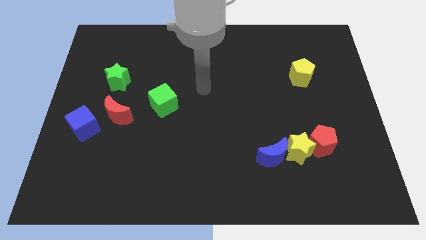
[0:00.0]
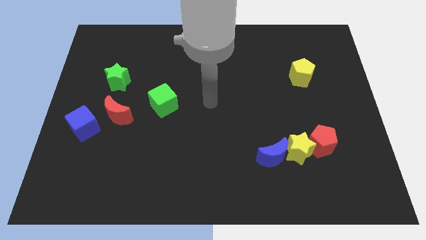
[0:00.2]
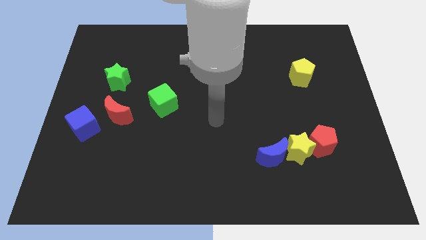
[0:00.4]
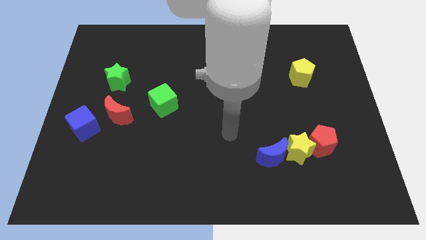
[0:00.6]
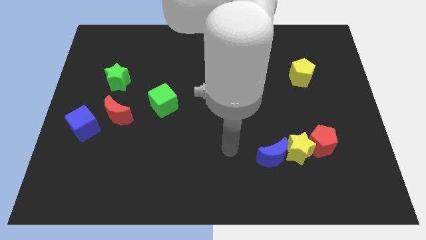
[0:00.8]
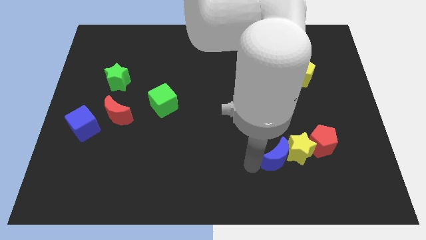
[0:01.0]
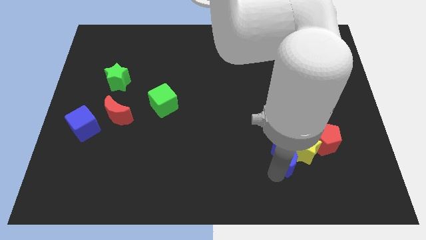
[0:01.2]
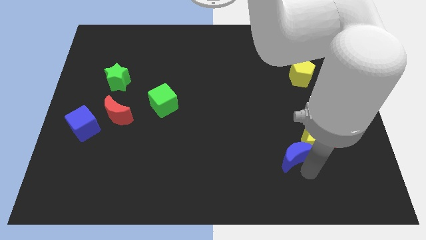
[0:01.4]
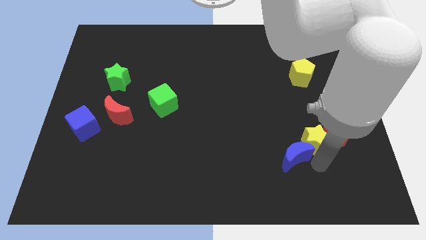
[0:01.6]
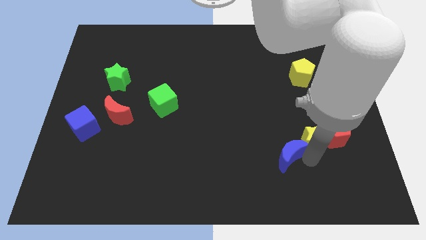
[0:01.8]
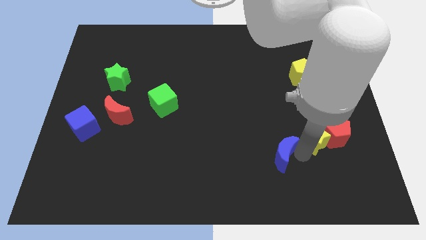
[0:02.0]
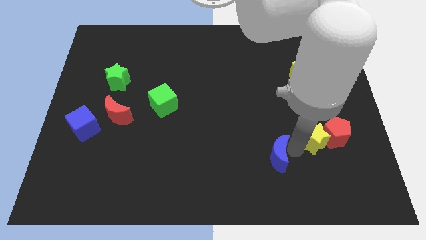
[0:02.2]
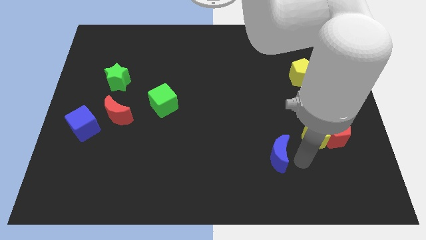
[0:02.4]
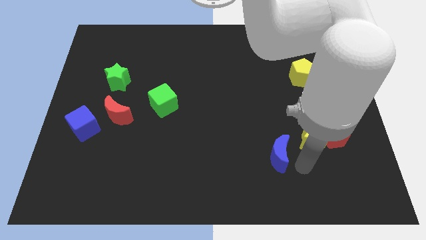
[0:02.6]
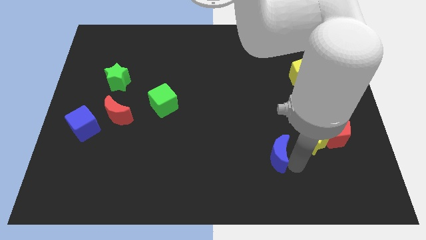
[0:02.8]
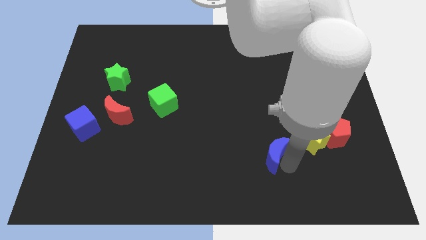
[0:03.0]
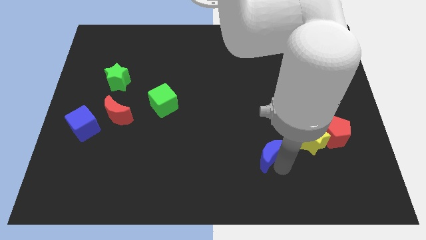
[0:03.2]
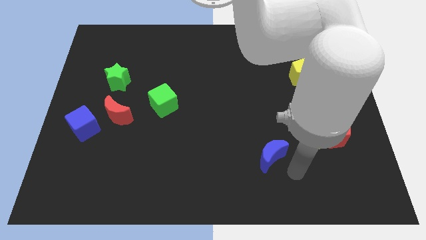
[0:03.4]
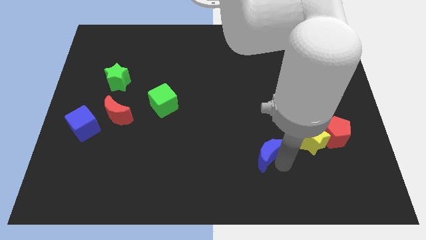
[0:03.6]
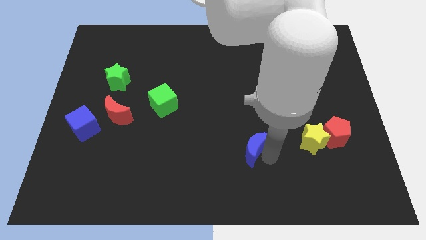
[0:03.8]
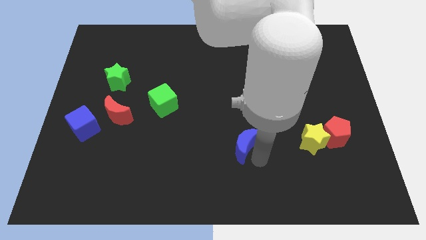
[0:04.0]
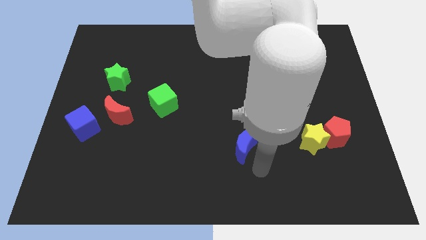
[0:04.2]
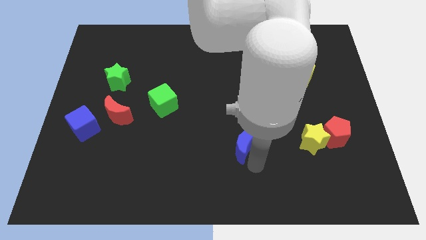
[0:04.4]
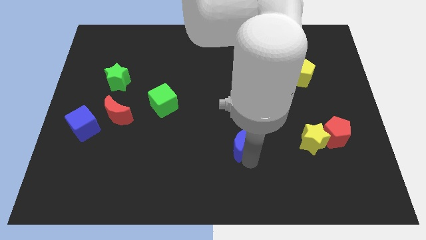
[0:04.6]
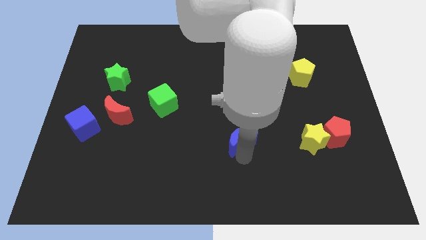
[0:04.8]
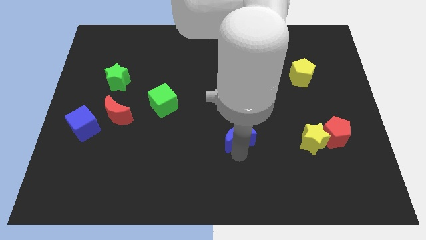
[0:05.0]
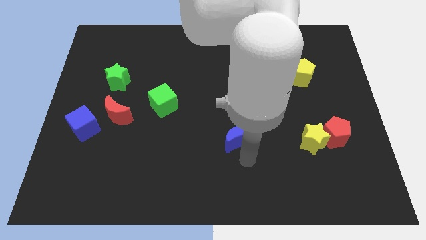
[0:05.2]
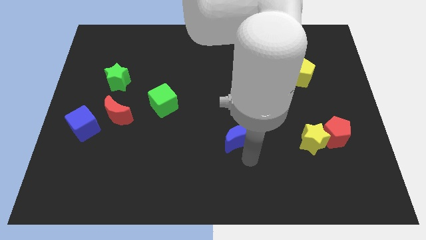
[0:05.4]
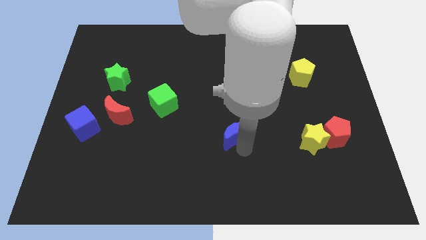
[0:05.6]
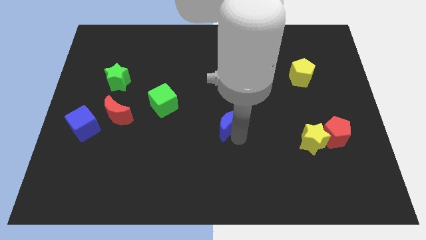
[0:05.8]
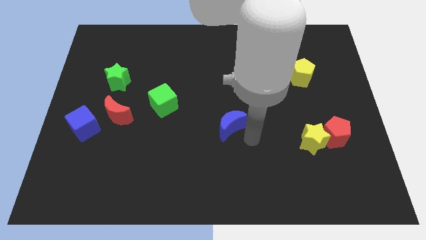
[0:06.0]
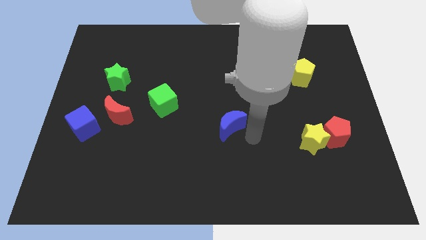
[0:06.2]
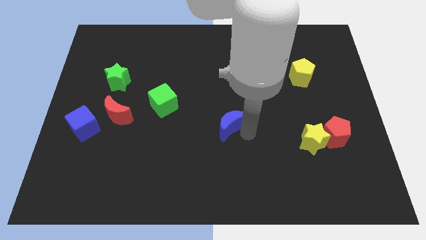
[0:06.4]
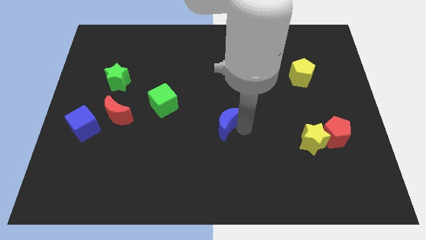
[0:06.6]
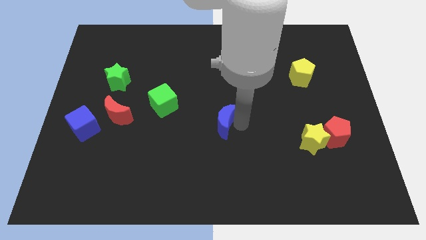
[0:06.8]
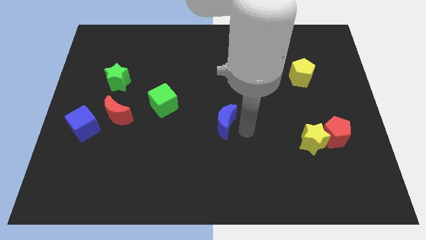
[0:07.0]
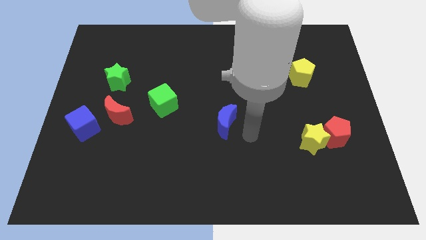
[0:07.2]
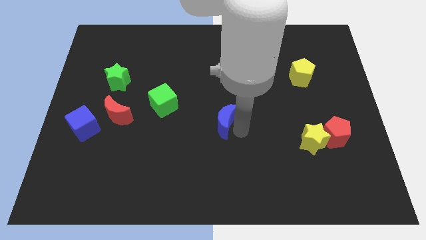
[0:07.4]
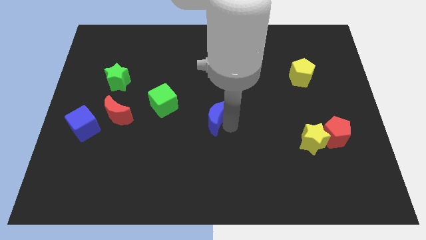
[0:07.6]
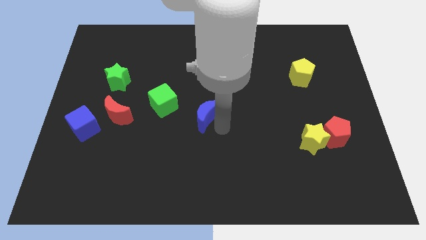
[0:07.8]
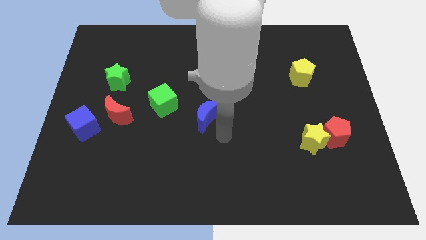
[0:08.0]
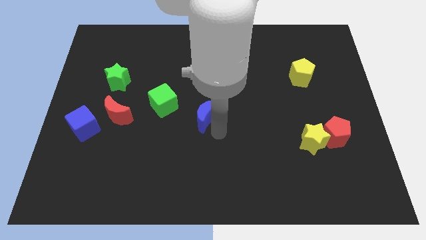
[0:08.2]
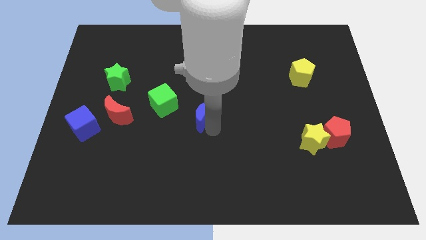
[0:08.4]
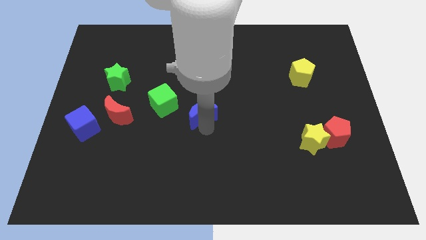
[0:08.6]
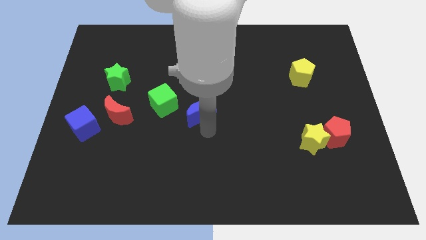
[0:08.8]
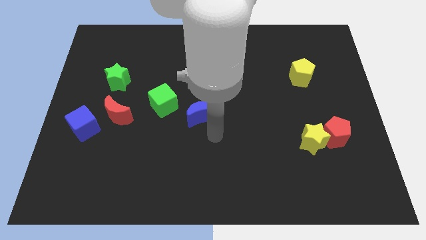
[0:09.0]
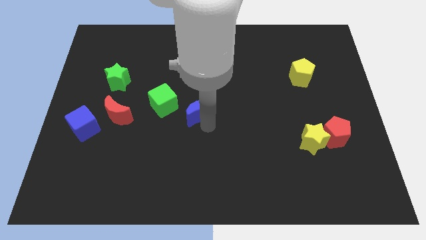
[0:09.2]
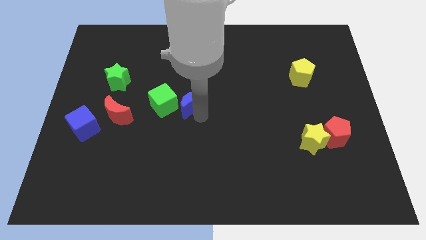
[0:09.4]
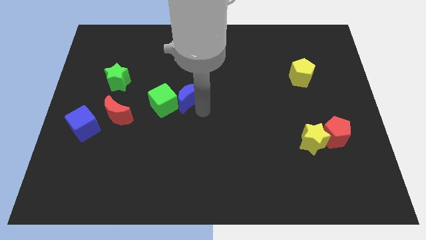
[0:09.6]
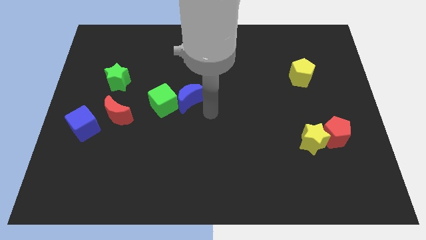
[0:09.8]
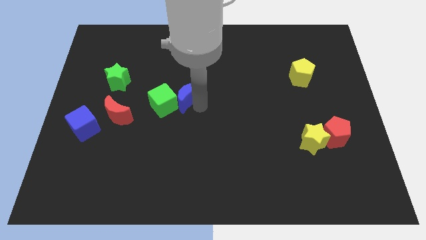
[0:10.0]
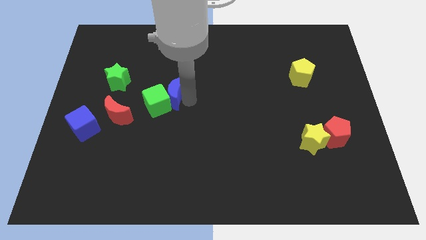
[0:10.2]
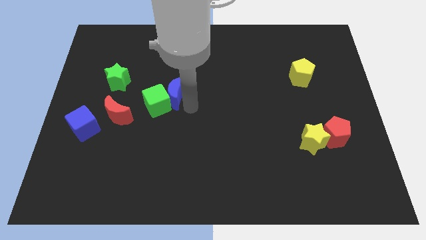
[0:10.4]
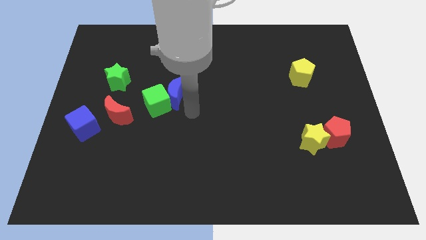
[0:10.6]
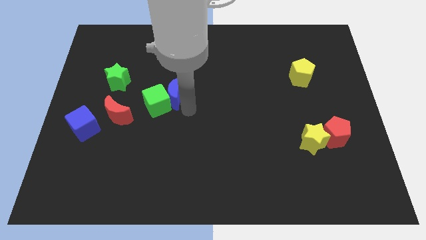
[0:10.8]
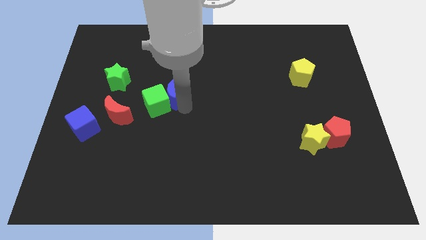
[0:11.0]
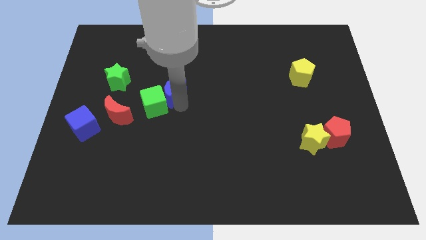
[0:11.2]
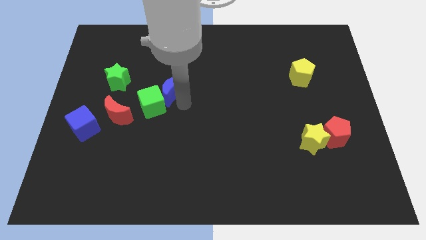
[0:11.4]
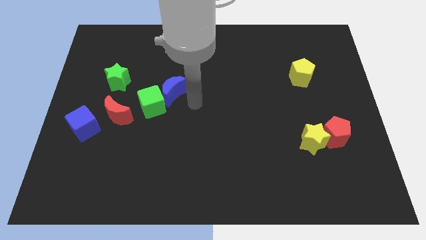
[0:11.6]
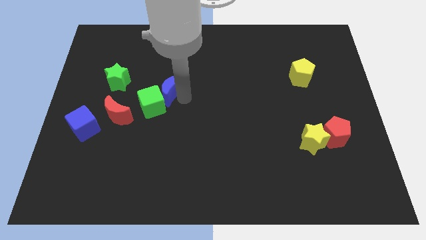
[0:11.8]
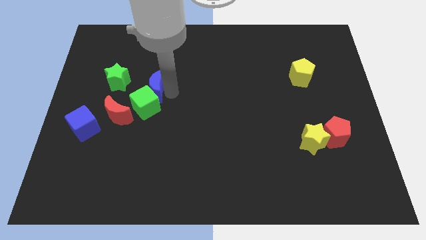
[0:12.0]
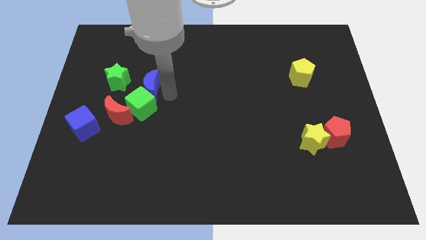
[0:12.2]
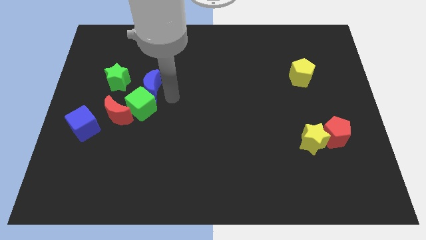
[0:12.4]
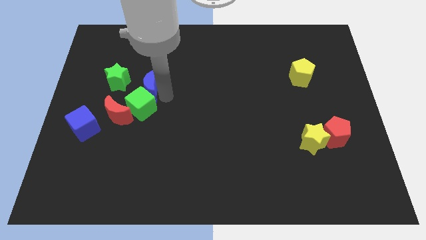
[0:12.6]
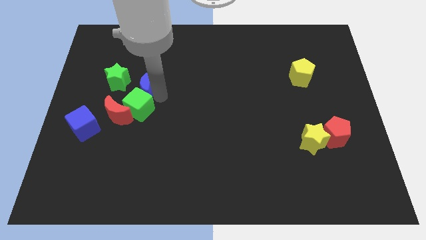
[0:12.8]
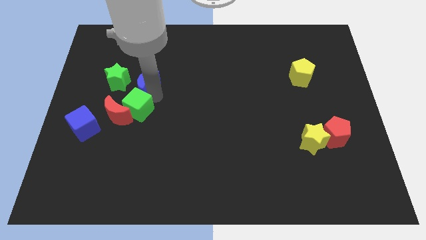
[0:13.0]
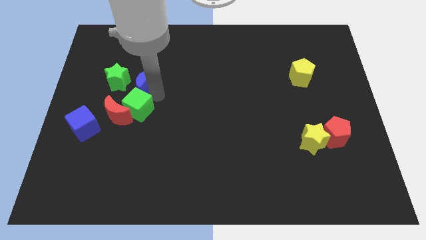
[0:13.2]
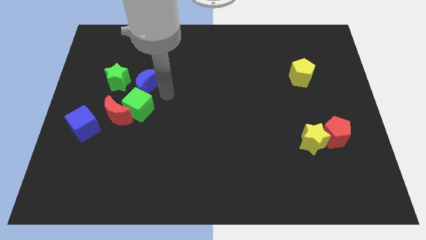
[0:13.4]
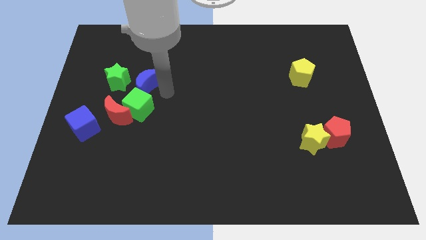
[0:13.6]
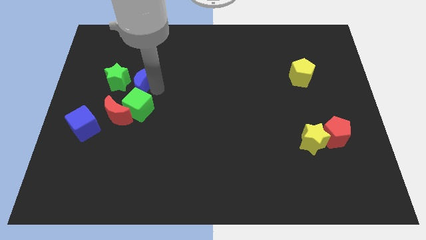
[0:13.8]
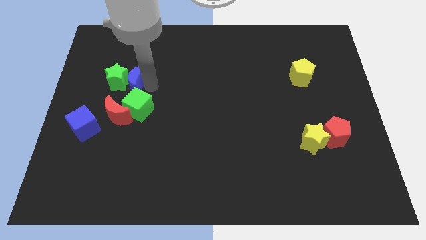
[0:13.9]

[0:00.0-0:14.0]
slide the blue moon close to the green star
